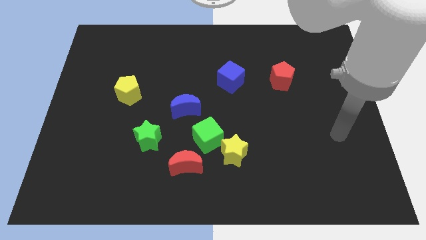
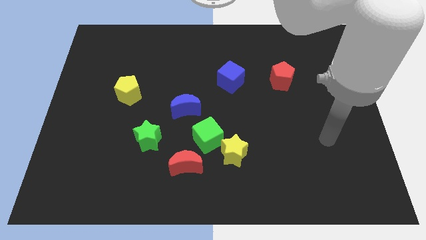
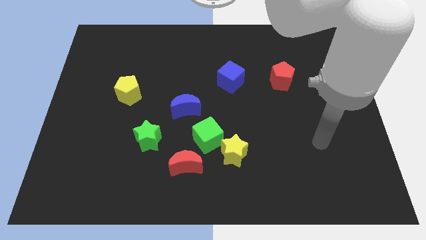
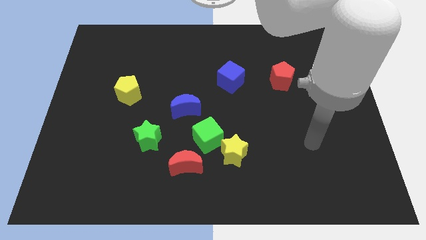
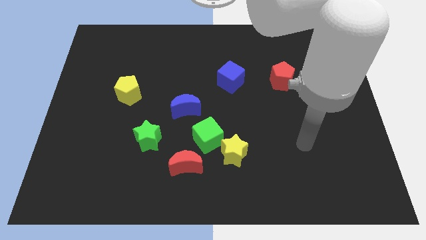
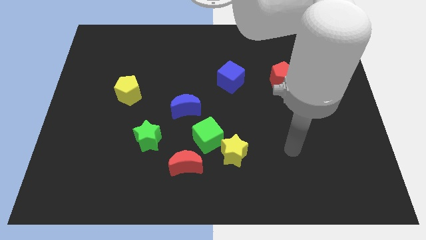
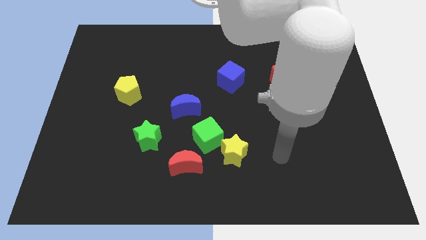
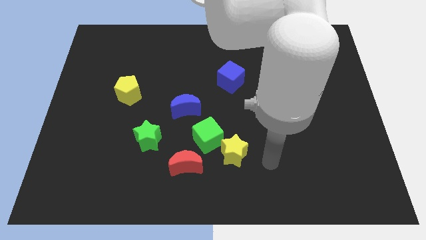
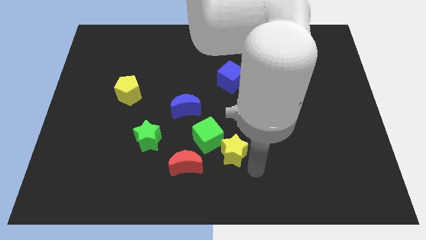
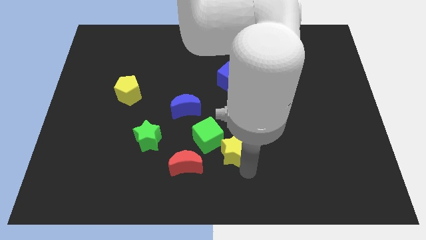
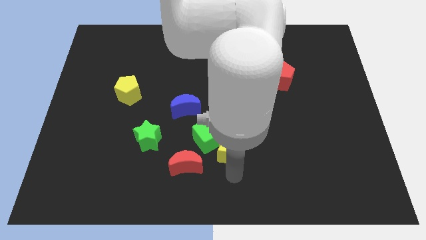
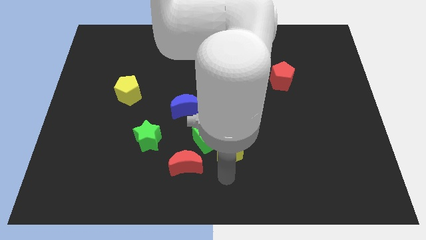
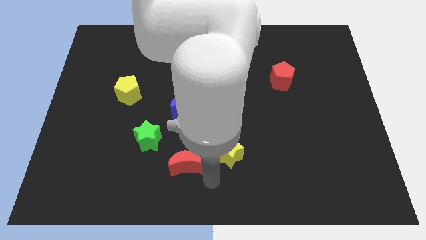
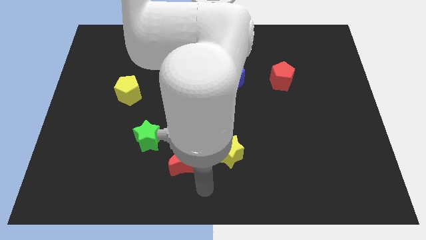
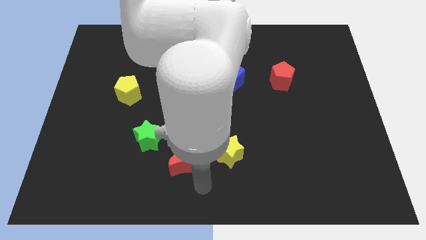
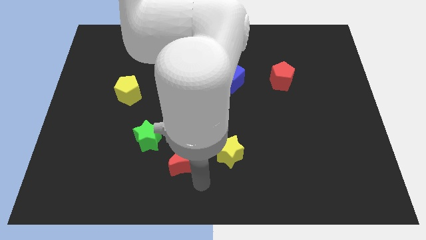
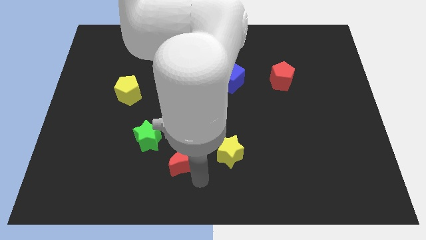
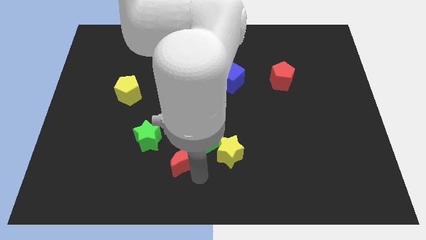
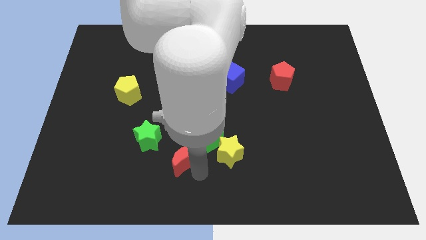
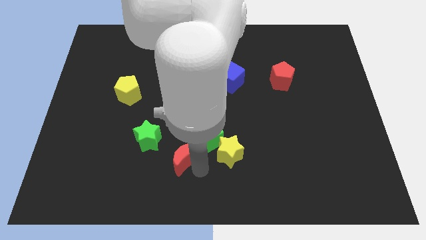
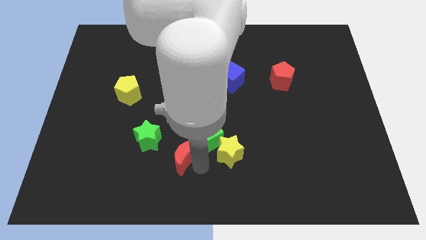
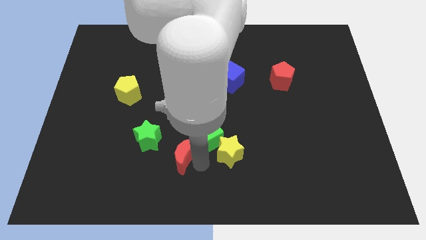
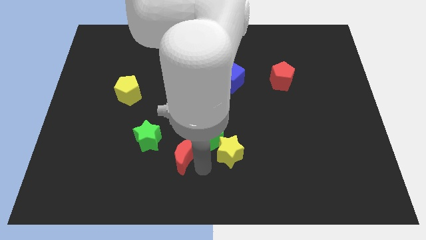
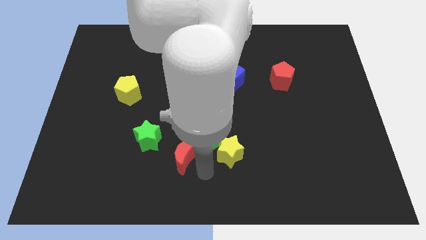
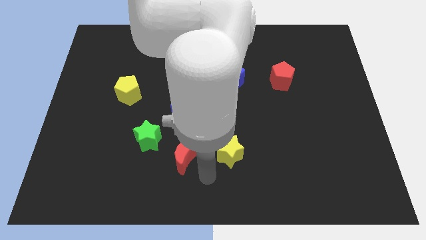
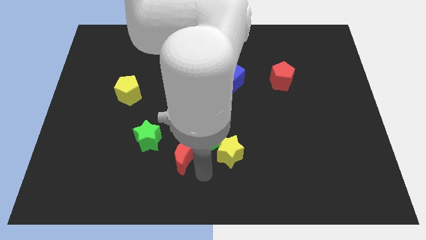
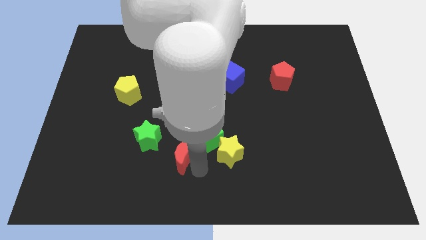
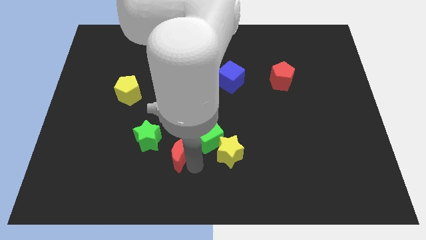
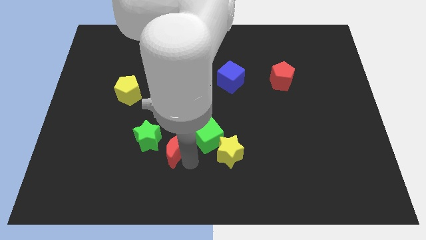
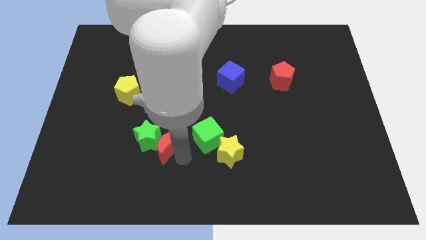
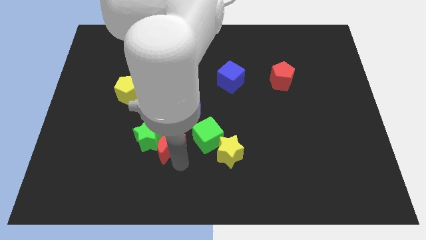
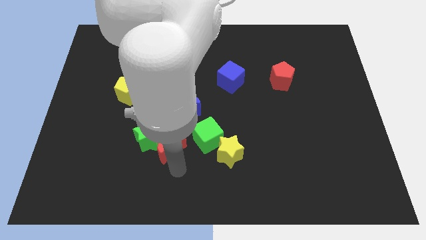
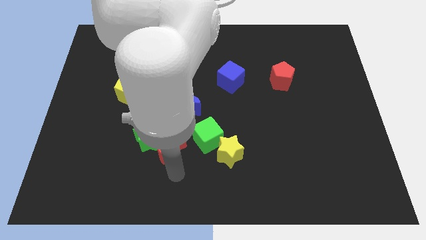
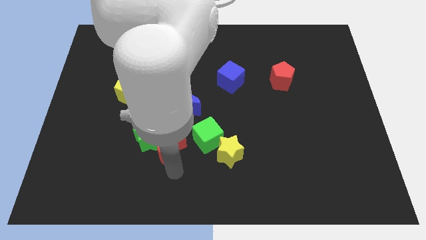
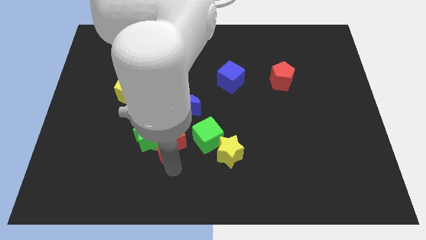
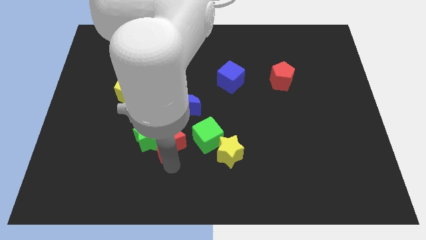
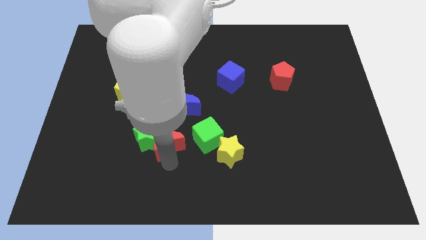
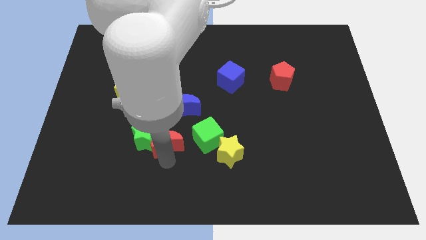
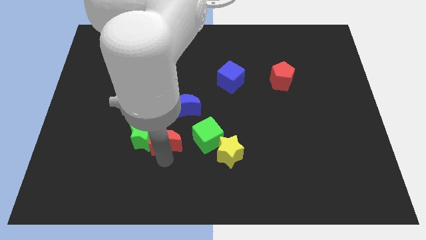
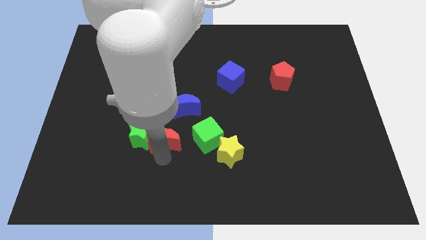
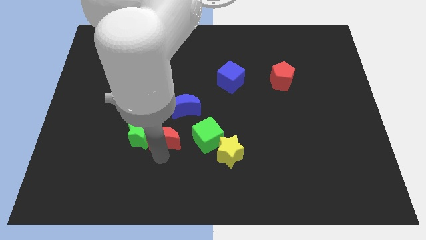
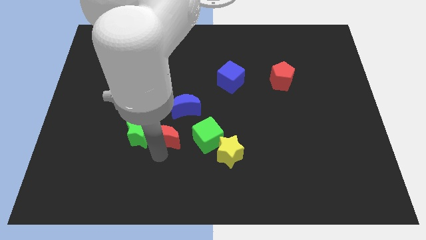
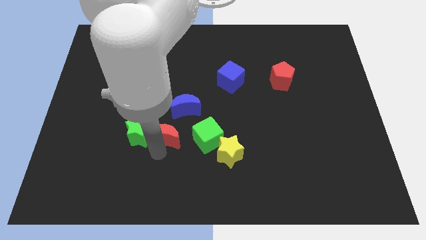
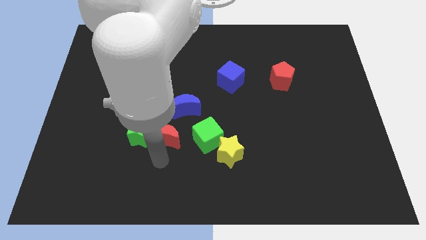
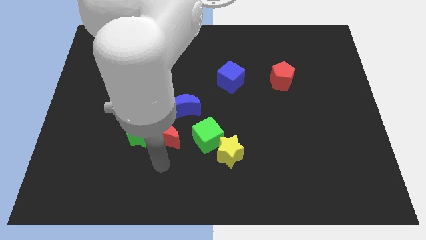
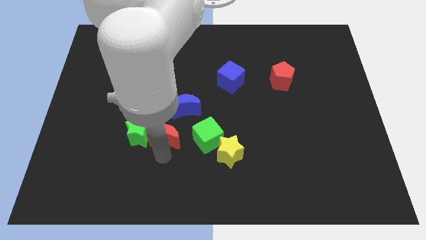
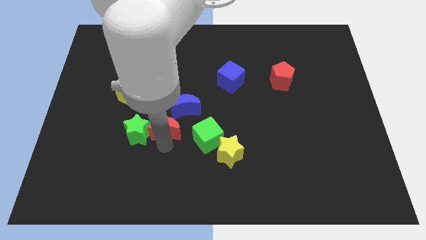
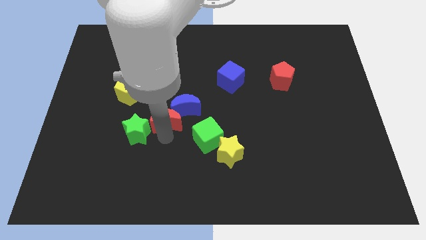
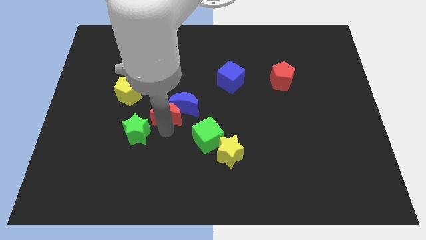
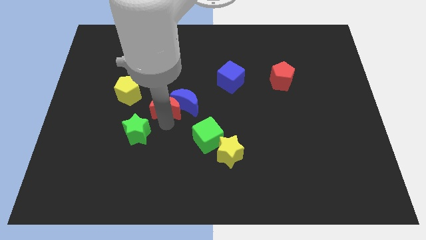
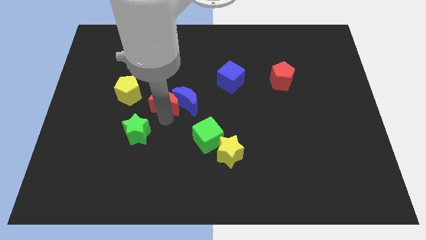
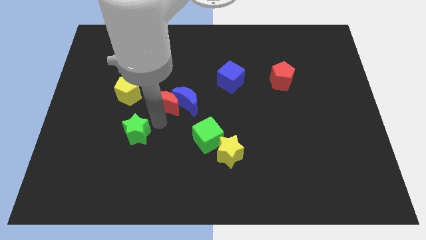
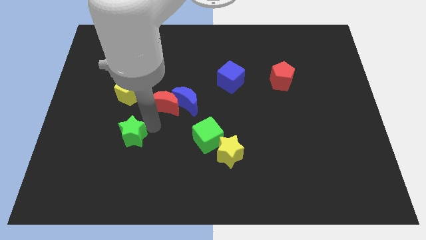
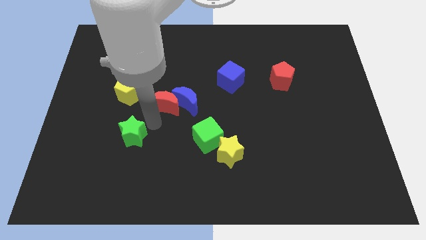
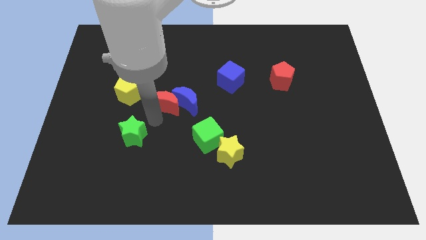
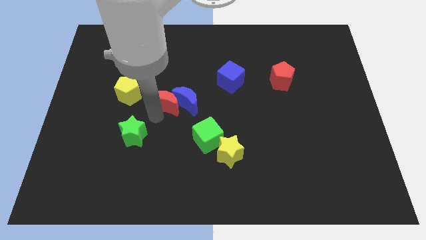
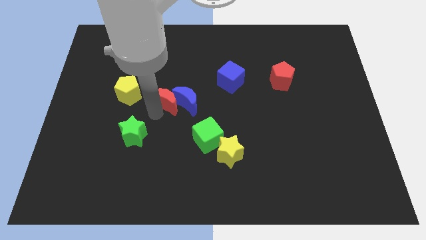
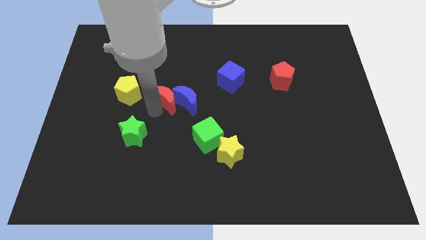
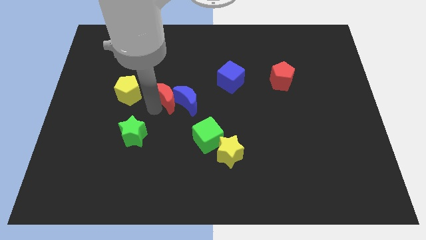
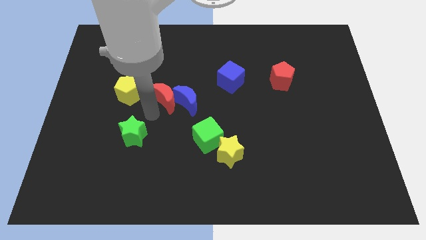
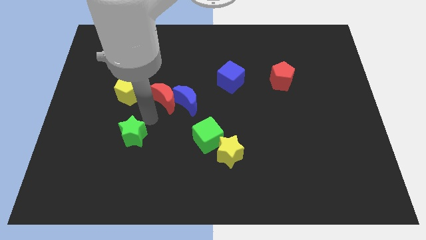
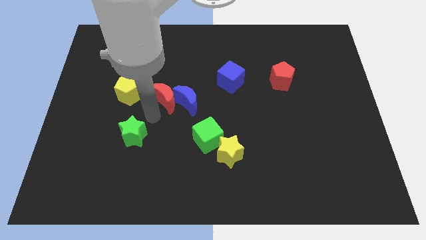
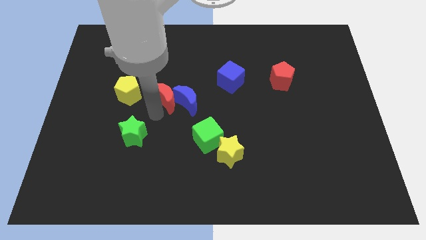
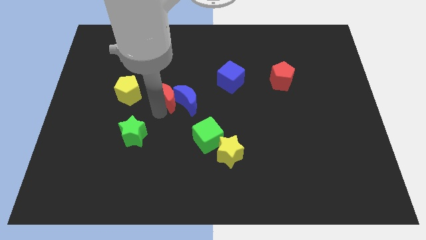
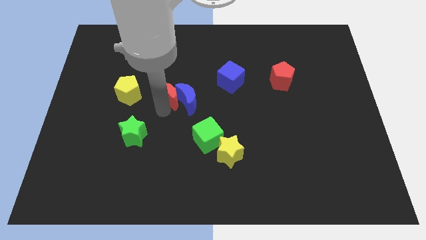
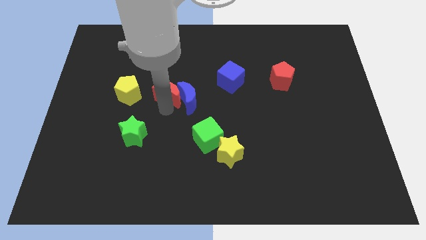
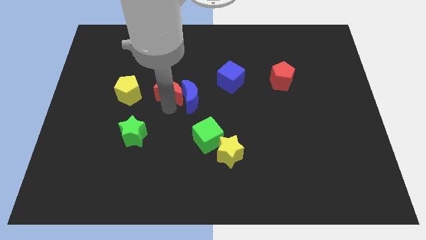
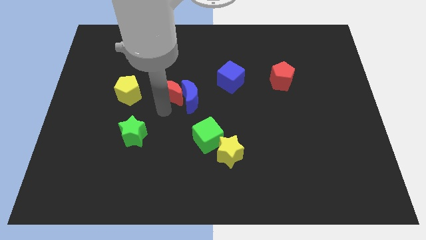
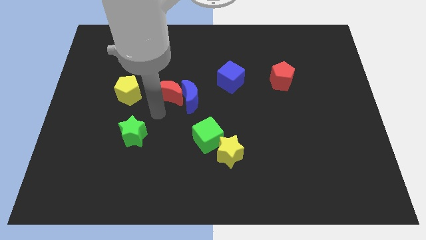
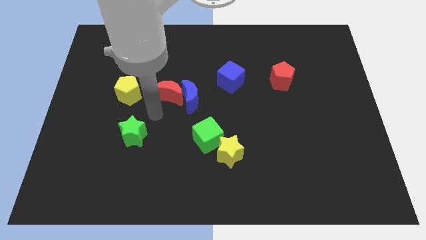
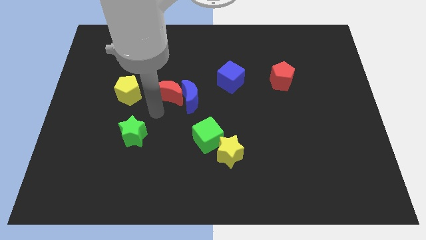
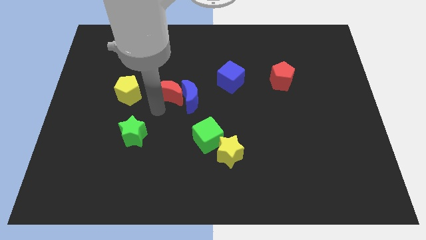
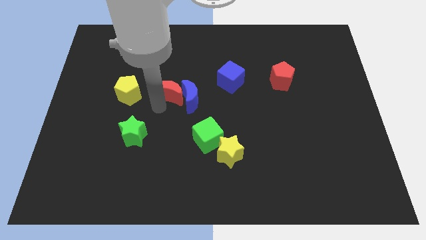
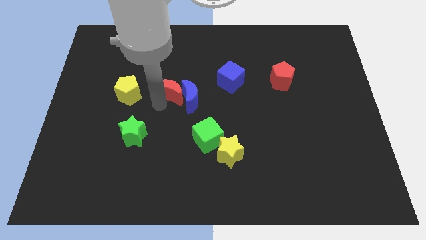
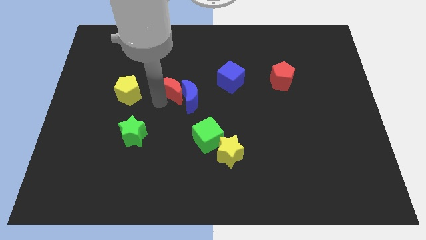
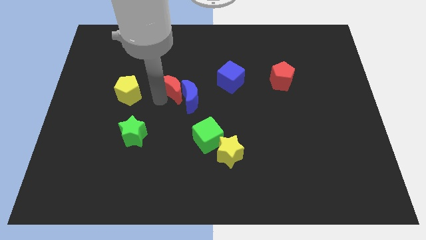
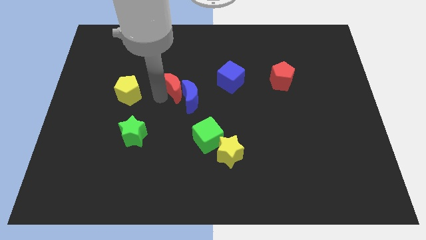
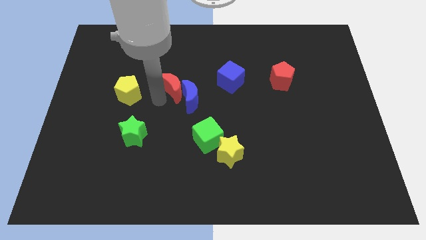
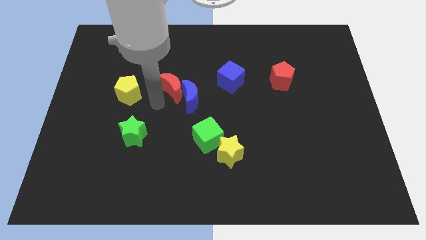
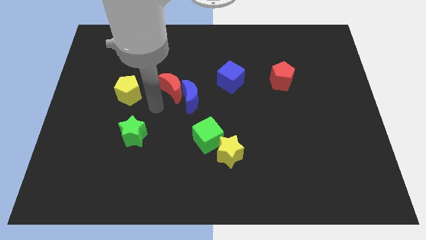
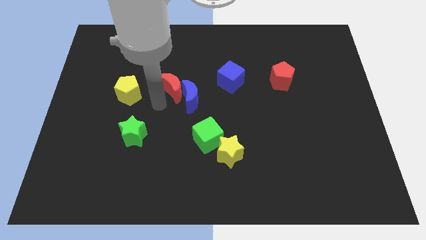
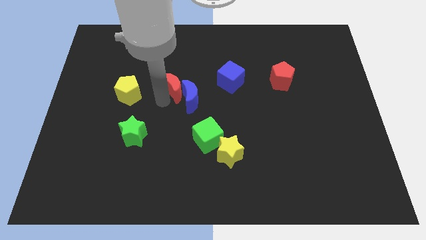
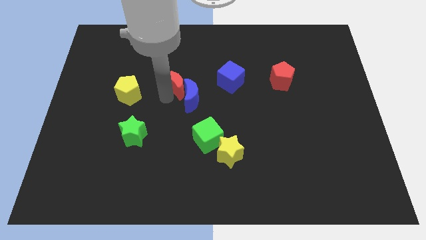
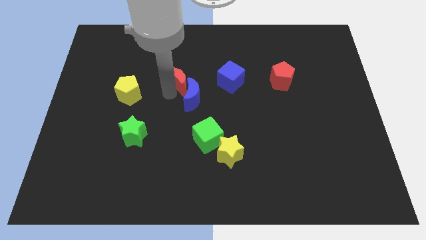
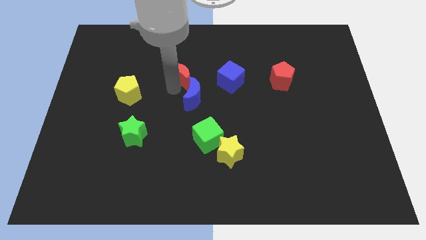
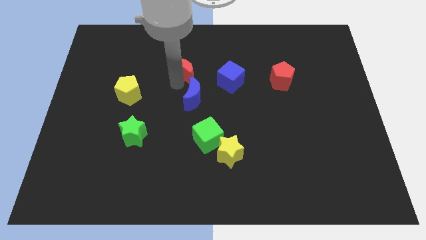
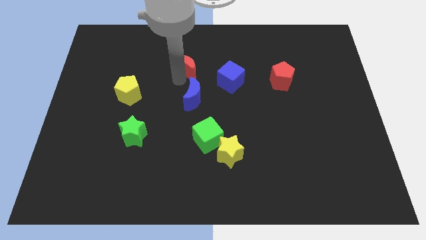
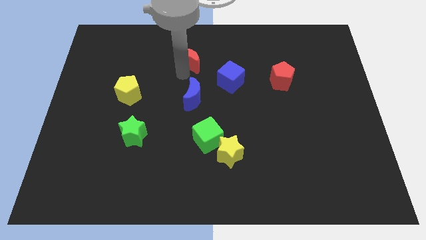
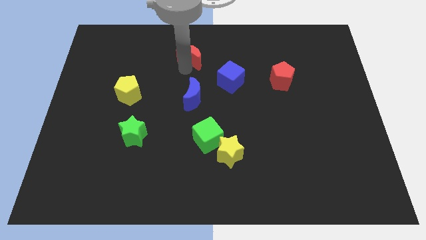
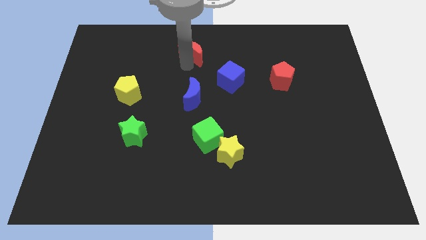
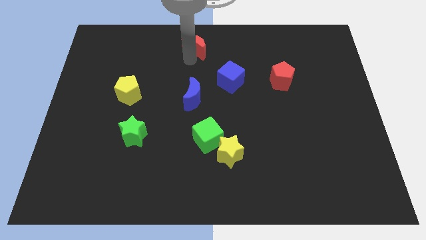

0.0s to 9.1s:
slide the red moon to the top side
